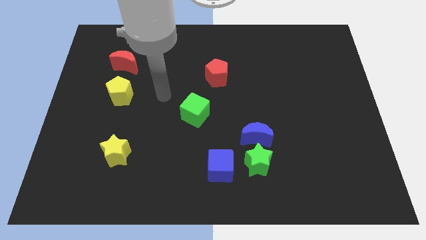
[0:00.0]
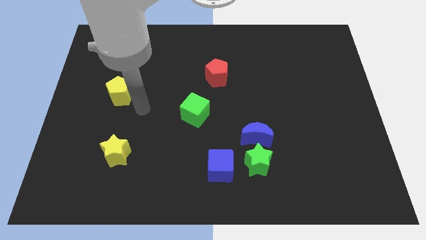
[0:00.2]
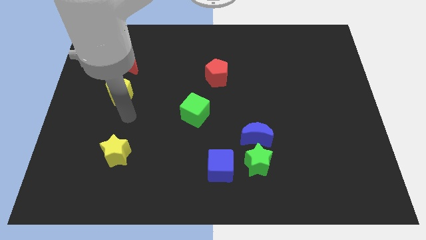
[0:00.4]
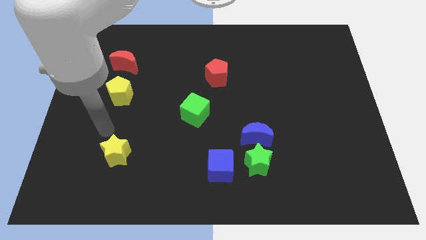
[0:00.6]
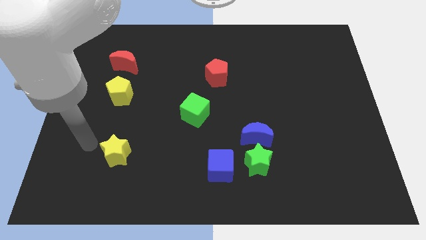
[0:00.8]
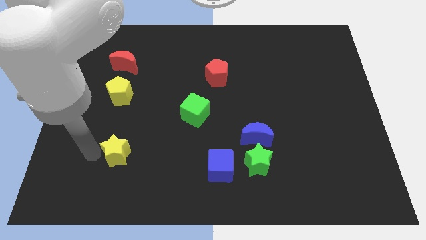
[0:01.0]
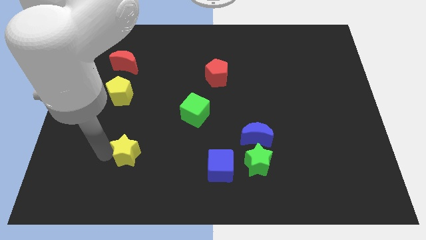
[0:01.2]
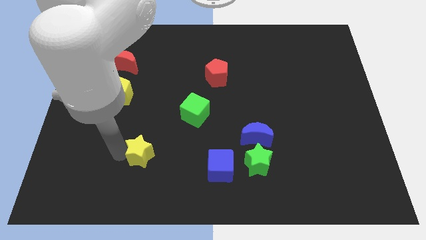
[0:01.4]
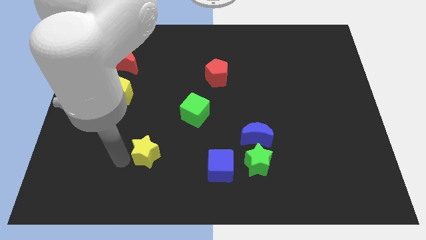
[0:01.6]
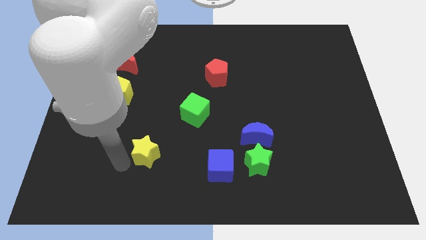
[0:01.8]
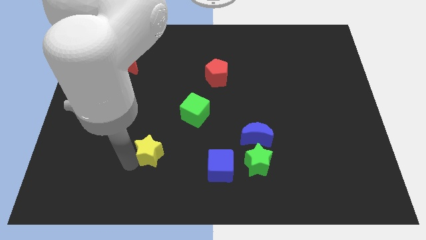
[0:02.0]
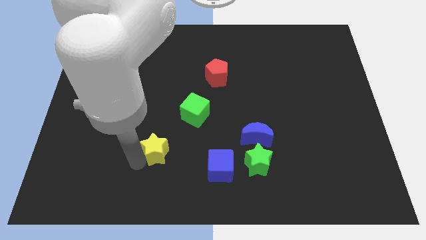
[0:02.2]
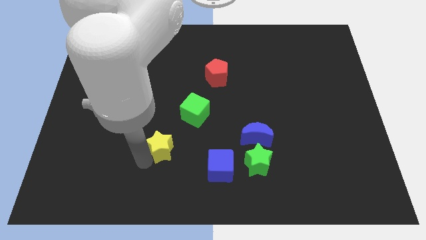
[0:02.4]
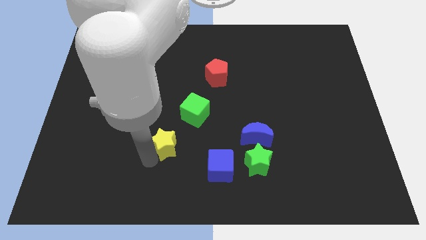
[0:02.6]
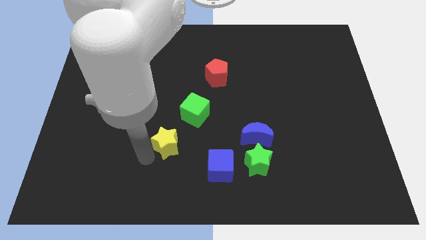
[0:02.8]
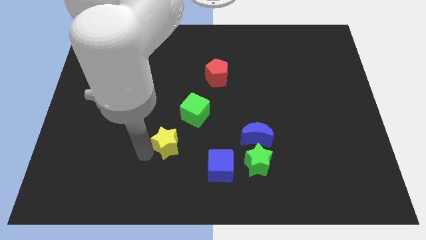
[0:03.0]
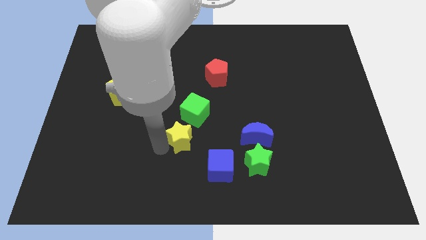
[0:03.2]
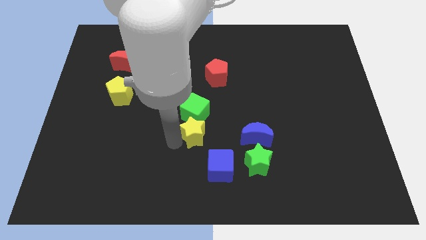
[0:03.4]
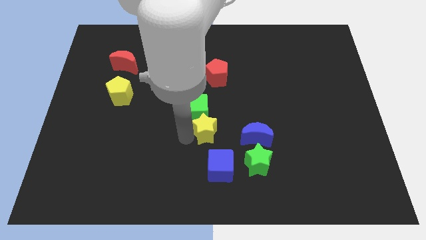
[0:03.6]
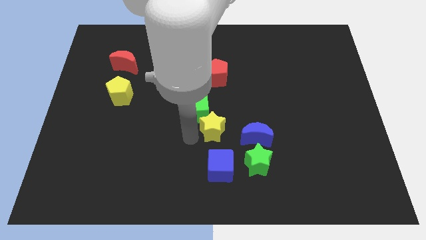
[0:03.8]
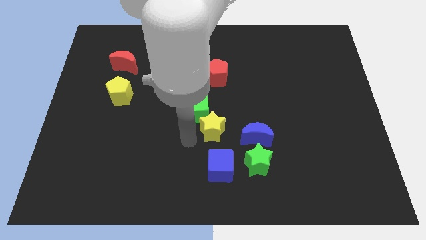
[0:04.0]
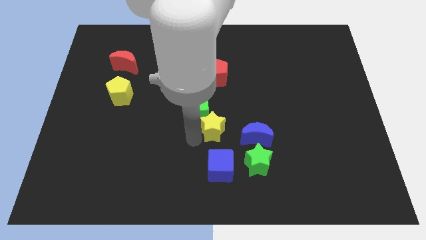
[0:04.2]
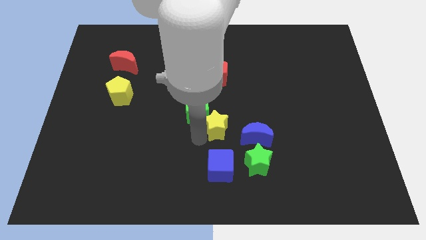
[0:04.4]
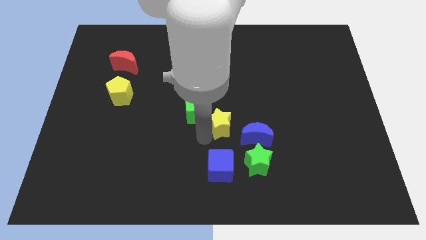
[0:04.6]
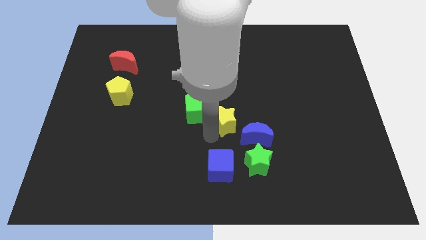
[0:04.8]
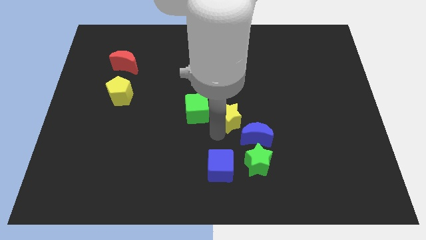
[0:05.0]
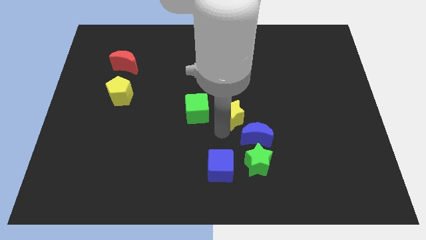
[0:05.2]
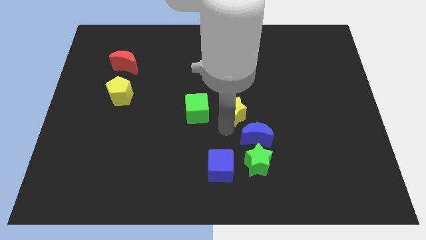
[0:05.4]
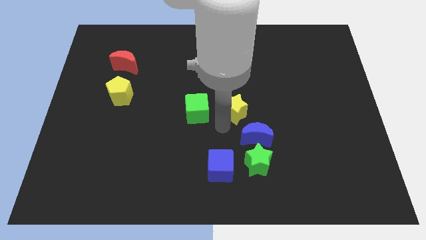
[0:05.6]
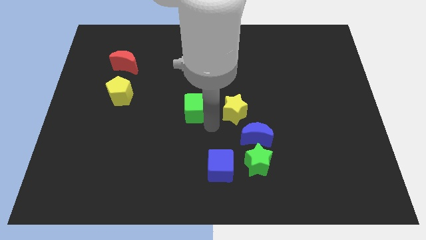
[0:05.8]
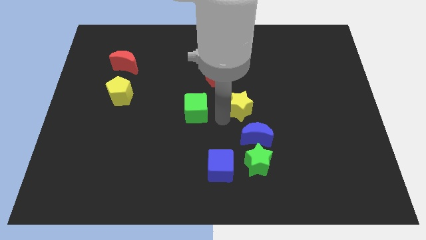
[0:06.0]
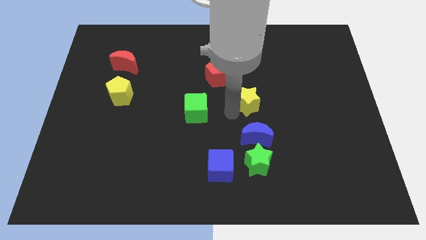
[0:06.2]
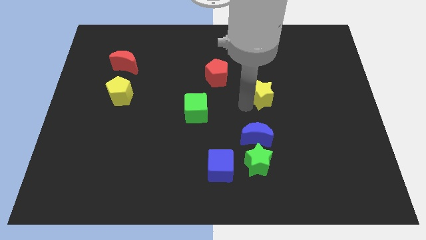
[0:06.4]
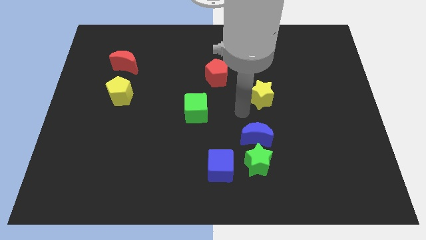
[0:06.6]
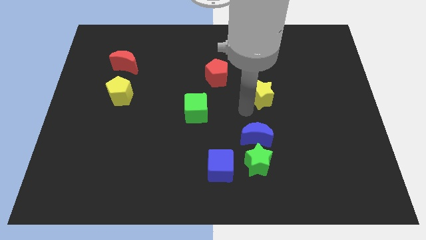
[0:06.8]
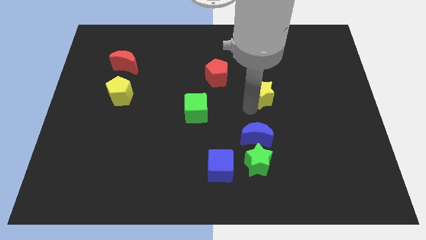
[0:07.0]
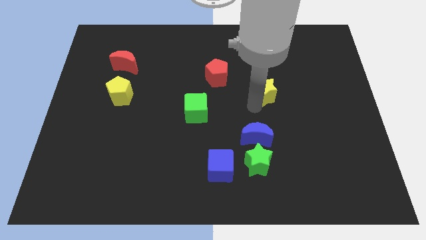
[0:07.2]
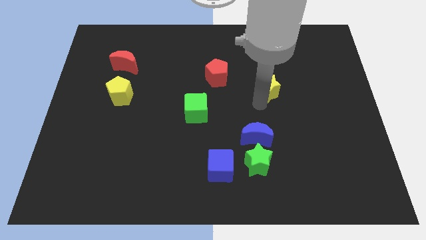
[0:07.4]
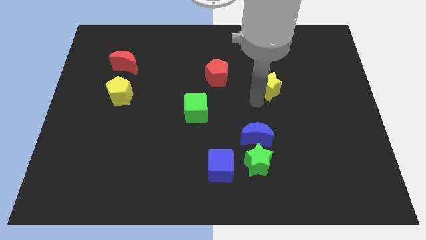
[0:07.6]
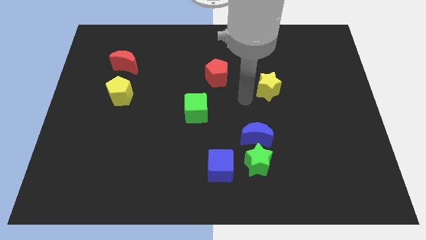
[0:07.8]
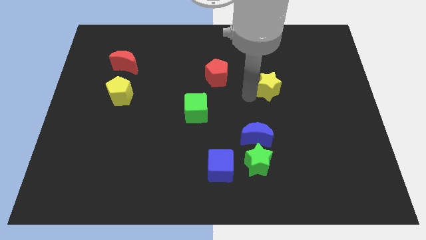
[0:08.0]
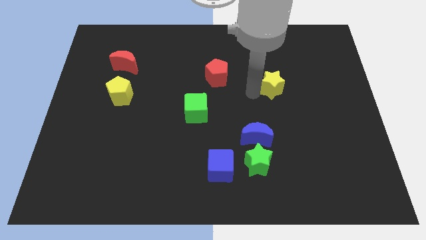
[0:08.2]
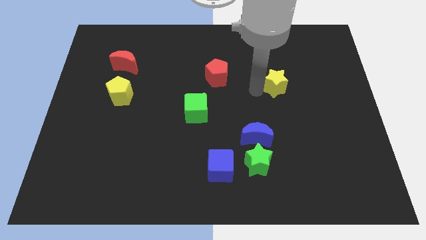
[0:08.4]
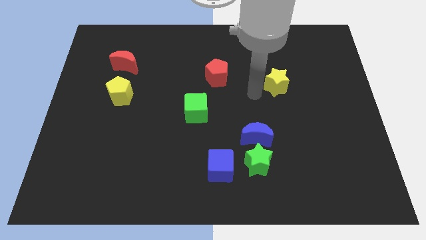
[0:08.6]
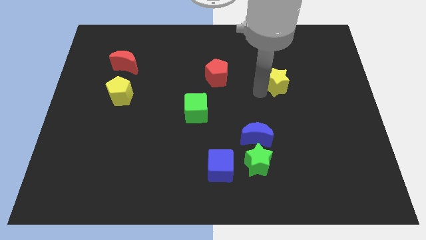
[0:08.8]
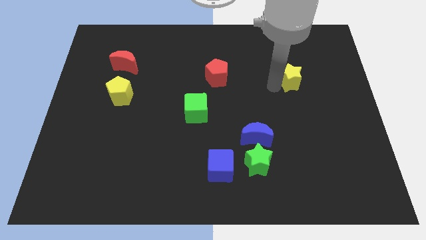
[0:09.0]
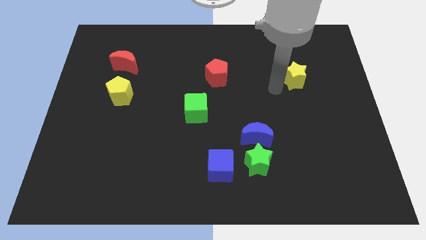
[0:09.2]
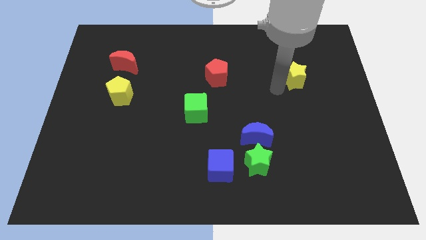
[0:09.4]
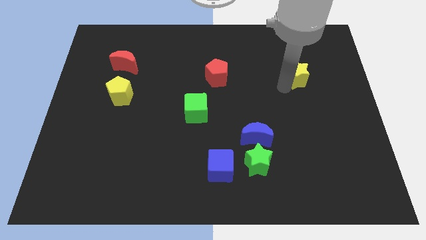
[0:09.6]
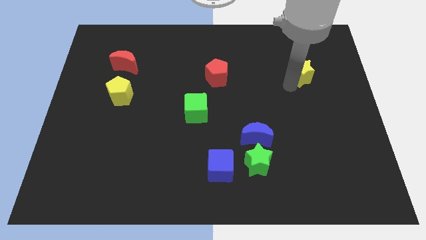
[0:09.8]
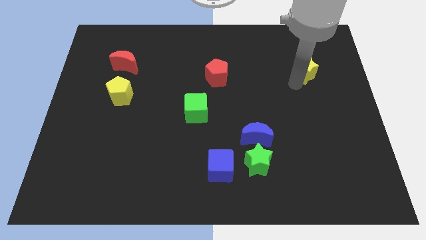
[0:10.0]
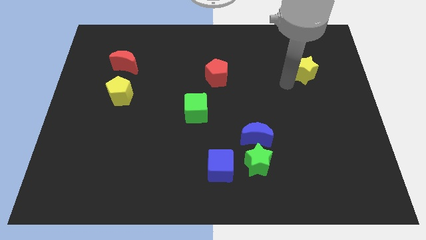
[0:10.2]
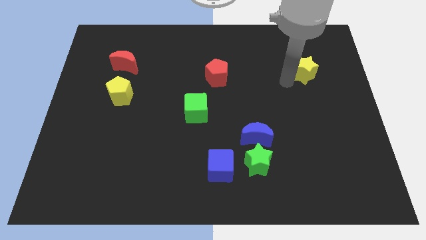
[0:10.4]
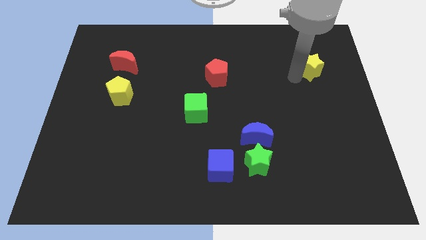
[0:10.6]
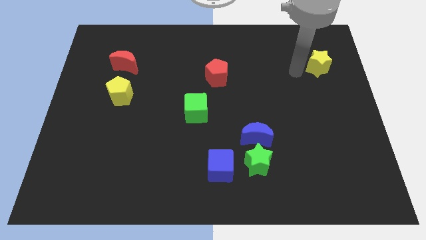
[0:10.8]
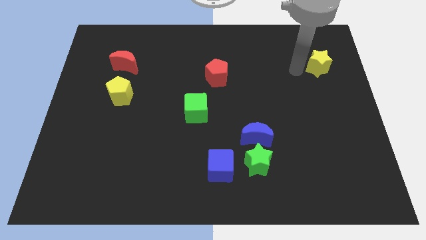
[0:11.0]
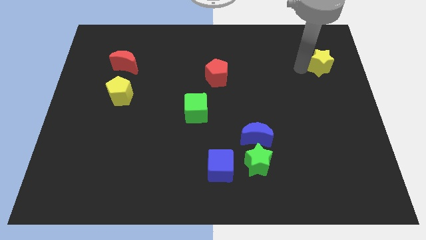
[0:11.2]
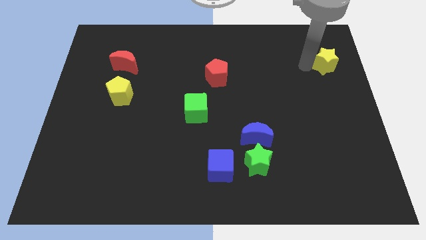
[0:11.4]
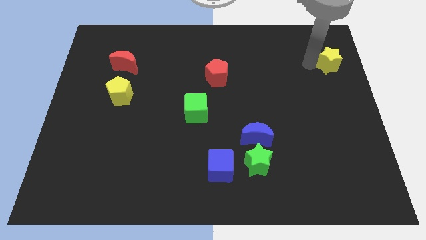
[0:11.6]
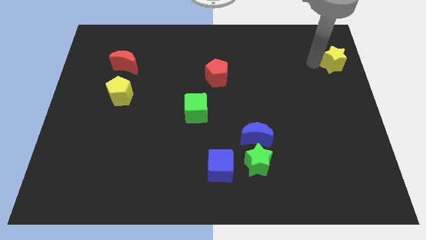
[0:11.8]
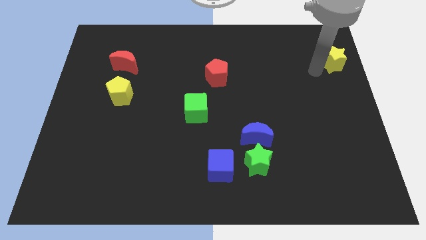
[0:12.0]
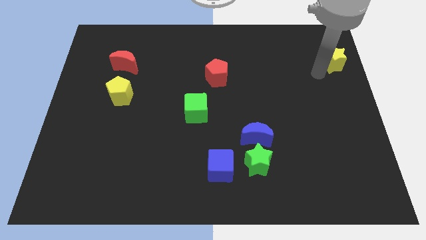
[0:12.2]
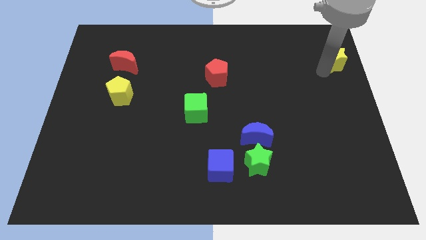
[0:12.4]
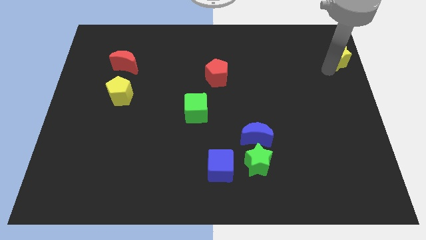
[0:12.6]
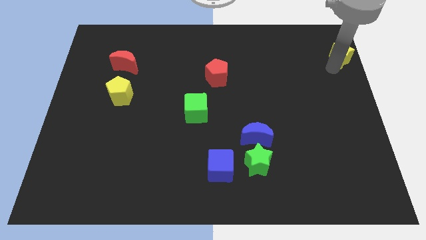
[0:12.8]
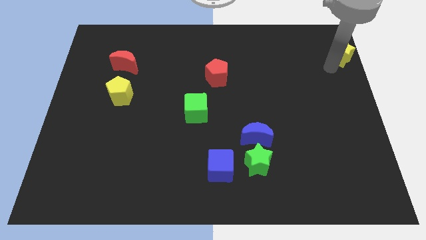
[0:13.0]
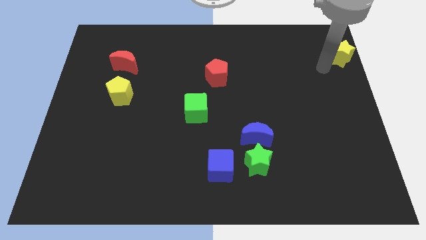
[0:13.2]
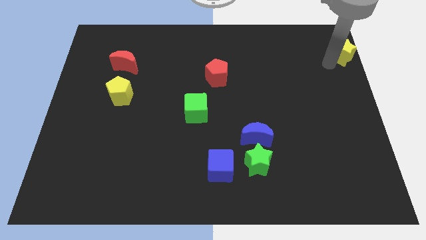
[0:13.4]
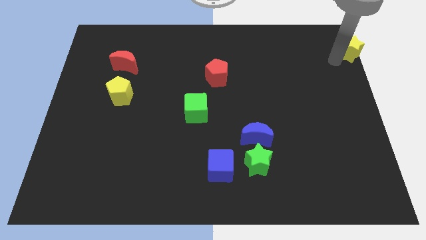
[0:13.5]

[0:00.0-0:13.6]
push the yellow star to the top right of the board
